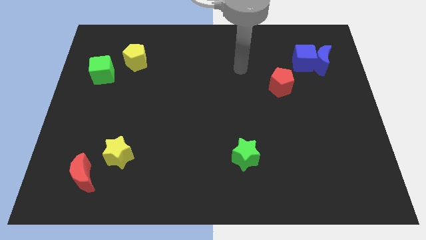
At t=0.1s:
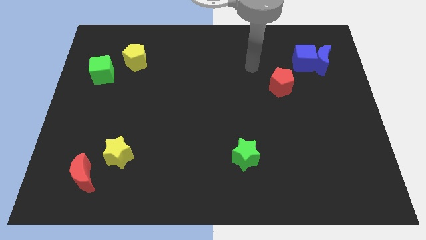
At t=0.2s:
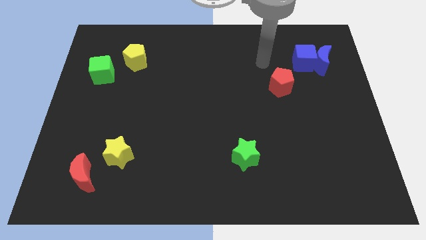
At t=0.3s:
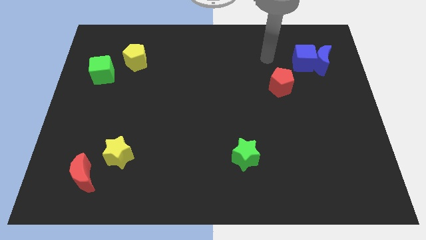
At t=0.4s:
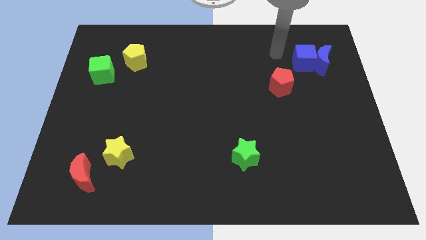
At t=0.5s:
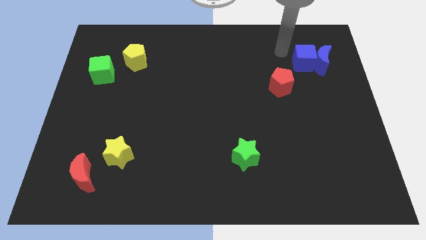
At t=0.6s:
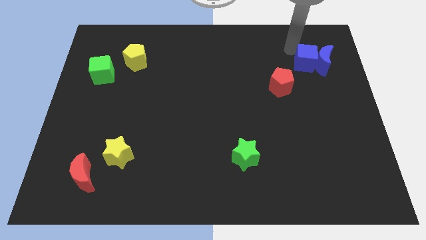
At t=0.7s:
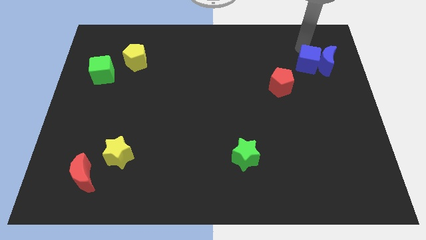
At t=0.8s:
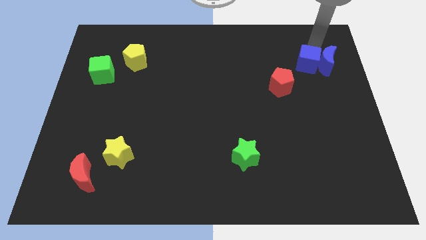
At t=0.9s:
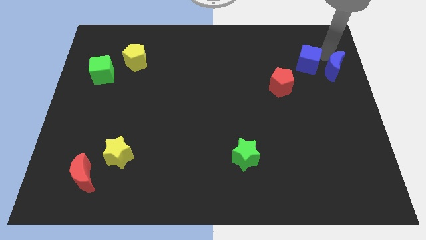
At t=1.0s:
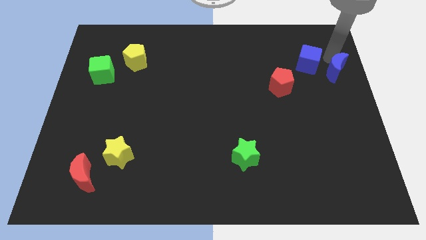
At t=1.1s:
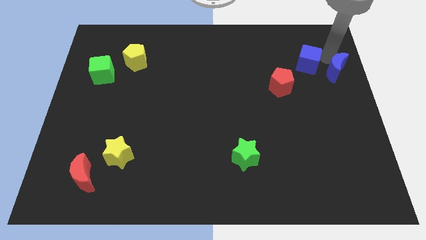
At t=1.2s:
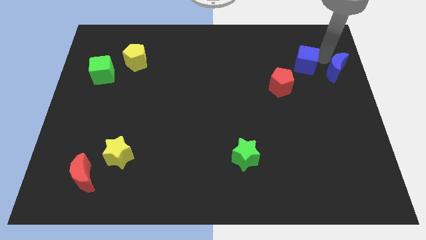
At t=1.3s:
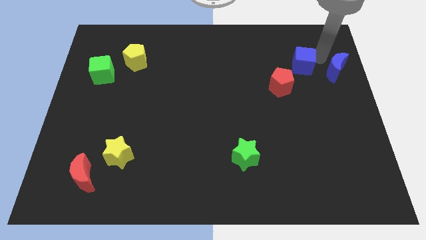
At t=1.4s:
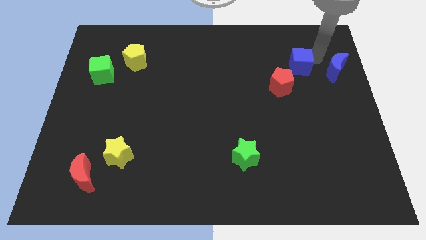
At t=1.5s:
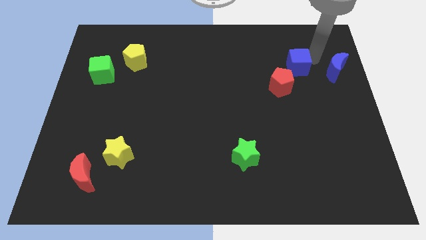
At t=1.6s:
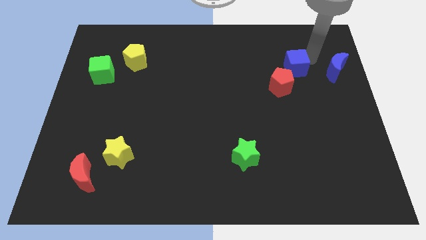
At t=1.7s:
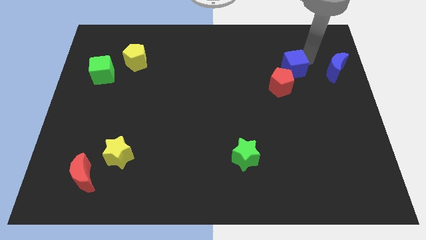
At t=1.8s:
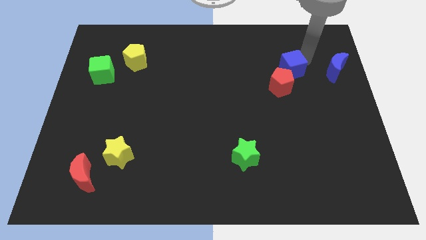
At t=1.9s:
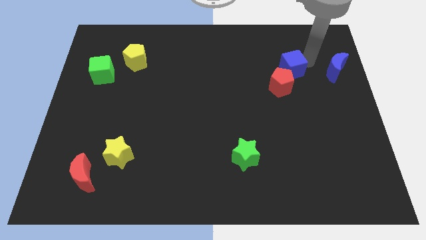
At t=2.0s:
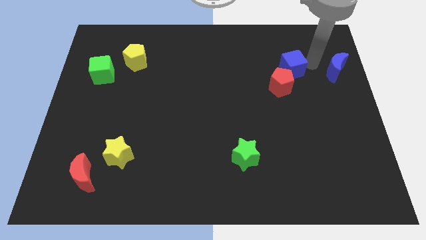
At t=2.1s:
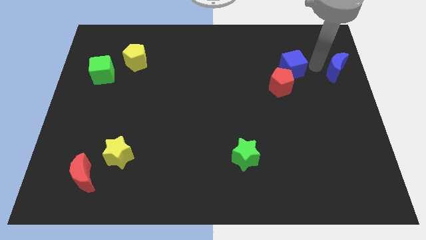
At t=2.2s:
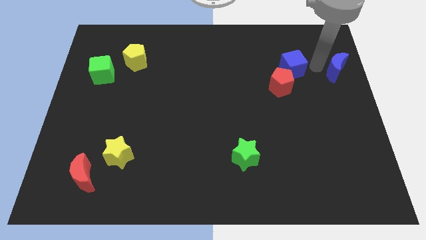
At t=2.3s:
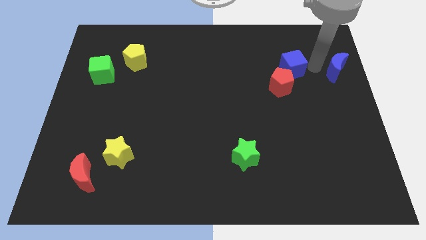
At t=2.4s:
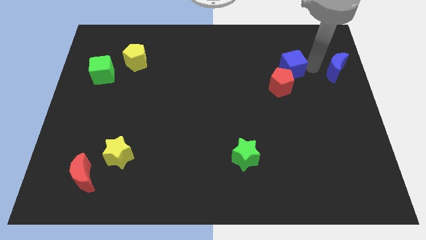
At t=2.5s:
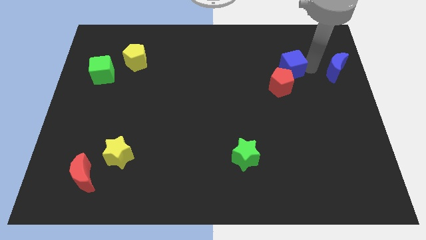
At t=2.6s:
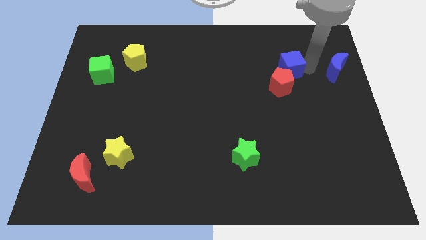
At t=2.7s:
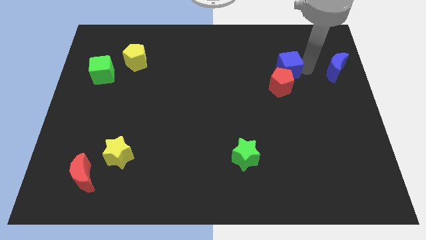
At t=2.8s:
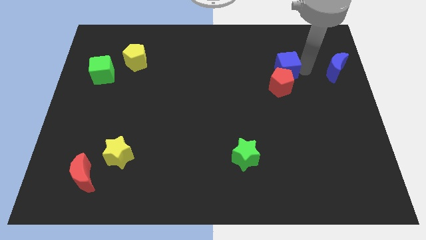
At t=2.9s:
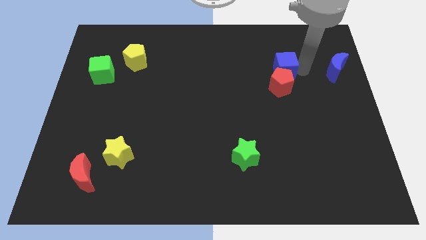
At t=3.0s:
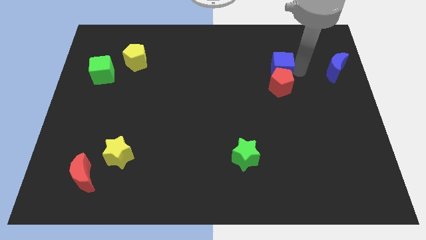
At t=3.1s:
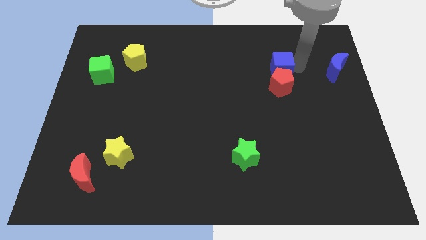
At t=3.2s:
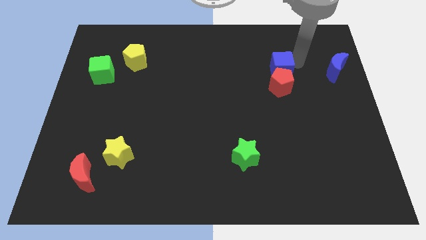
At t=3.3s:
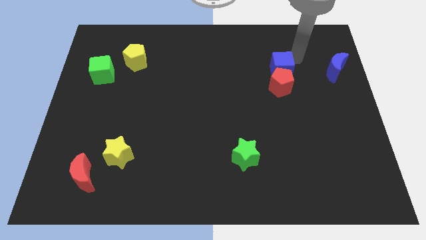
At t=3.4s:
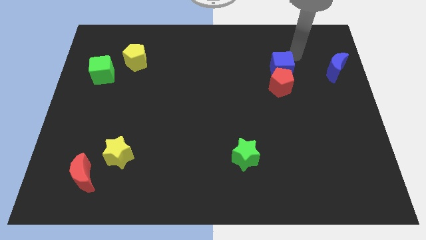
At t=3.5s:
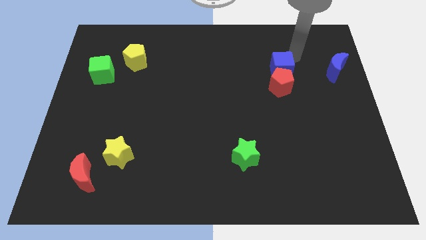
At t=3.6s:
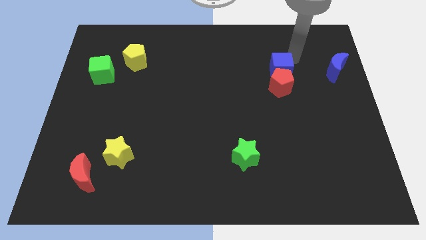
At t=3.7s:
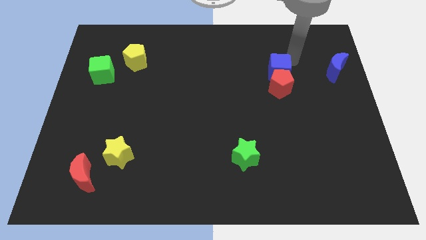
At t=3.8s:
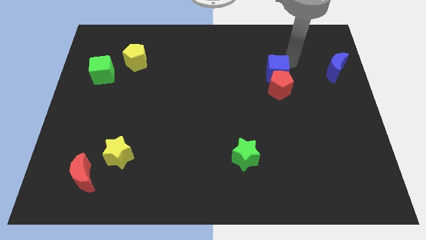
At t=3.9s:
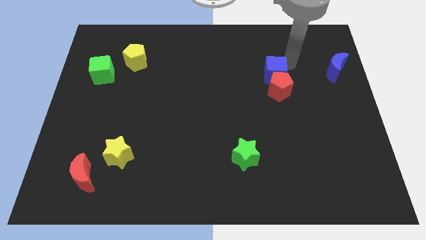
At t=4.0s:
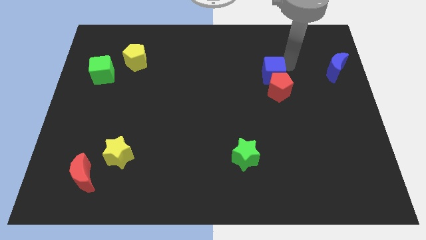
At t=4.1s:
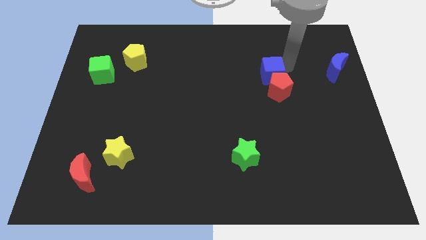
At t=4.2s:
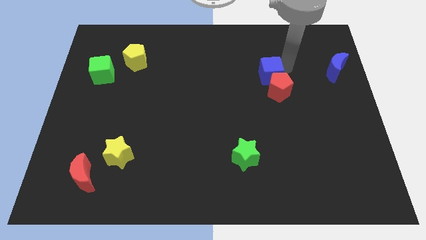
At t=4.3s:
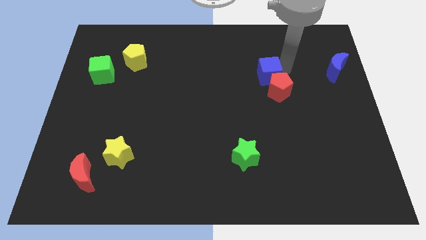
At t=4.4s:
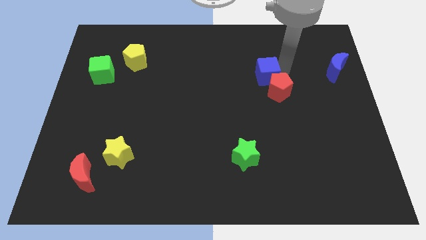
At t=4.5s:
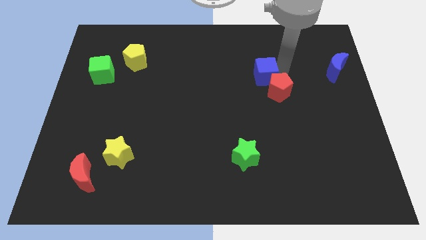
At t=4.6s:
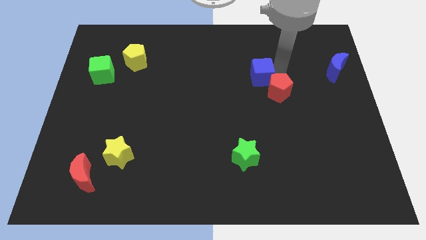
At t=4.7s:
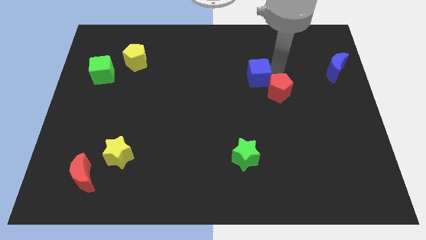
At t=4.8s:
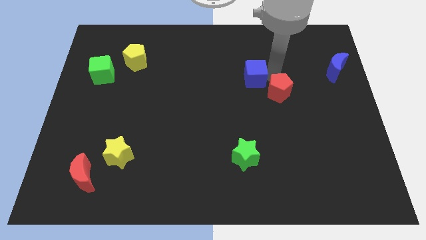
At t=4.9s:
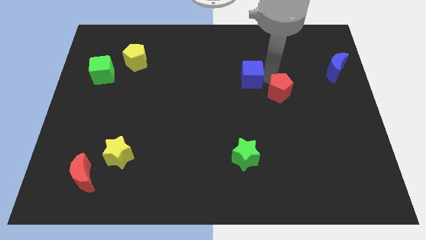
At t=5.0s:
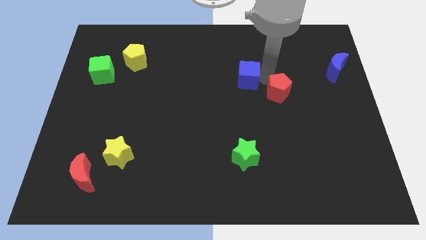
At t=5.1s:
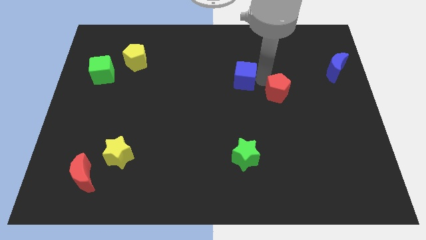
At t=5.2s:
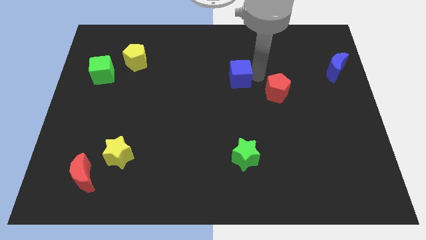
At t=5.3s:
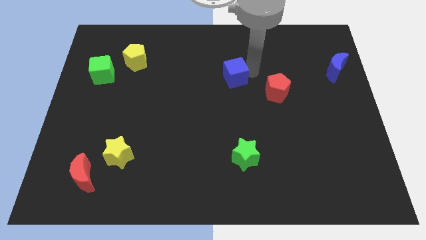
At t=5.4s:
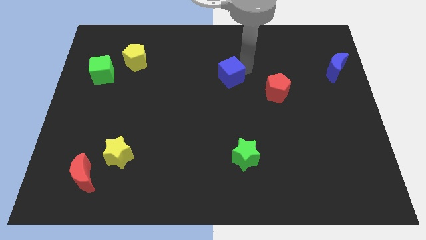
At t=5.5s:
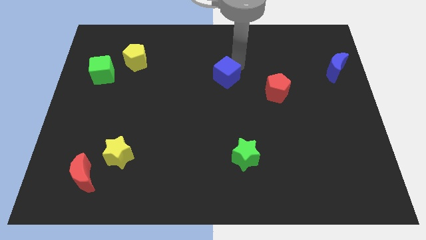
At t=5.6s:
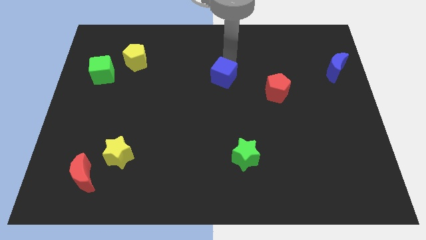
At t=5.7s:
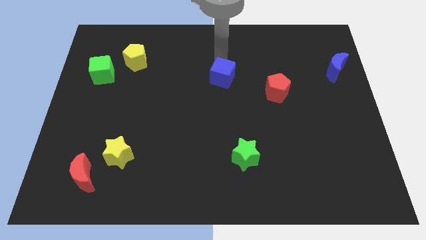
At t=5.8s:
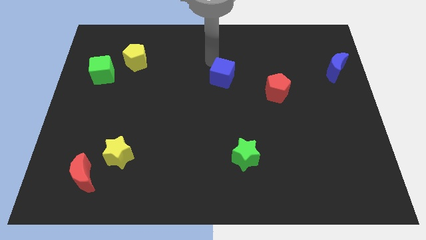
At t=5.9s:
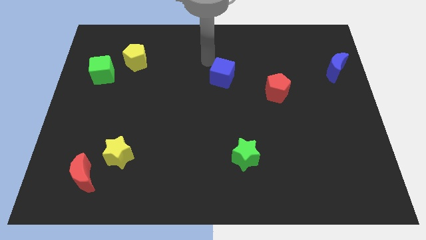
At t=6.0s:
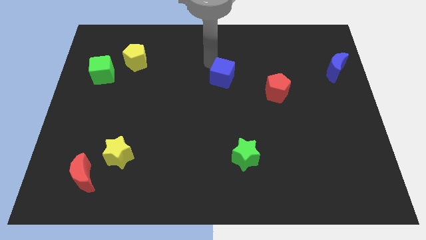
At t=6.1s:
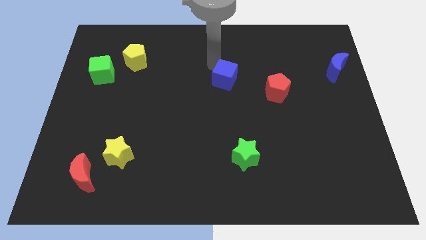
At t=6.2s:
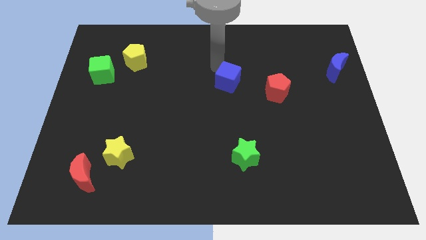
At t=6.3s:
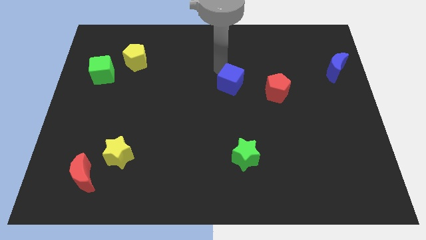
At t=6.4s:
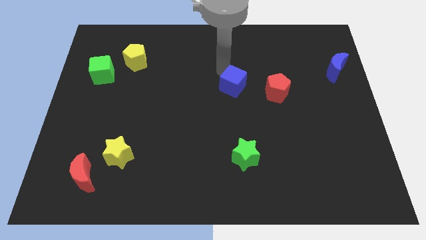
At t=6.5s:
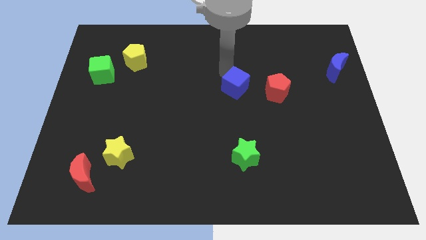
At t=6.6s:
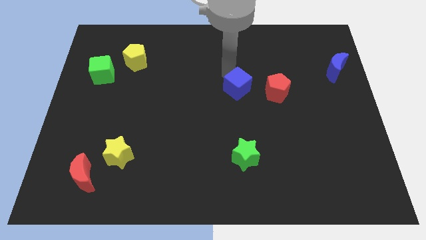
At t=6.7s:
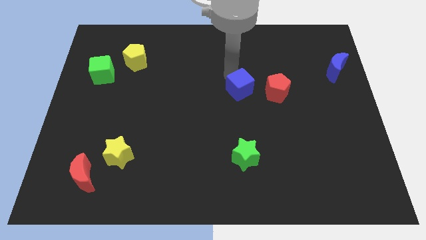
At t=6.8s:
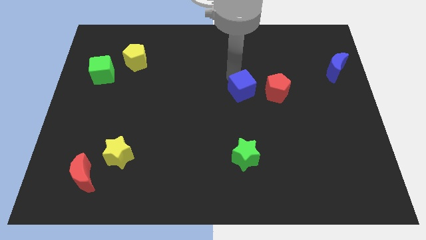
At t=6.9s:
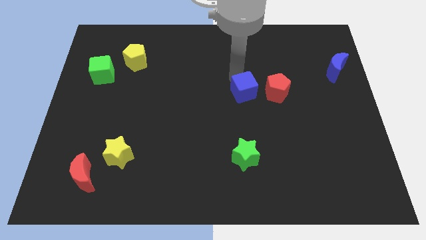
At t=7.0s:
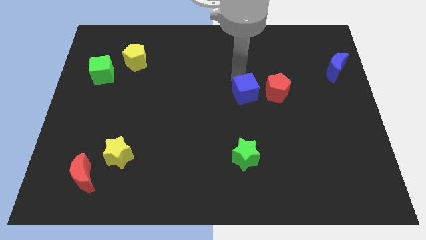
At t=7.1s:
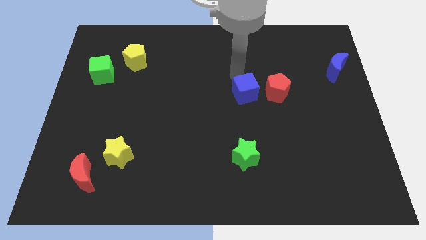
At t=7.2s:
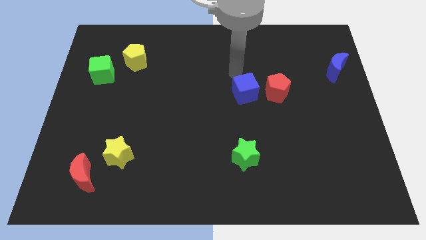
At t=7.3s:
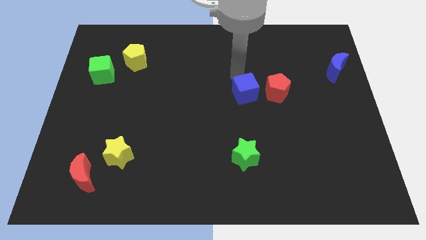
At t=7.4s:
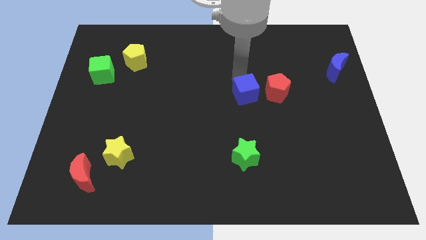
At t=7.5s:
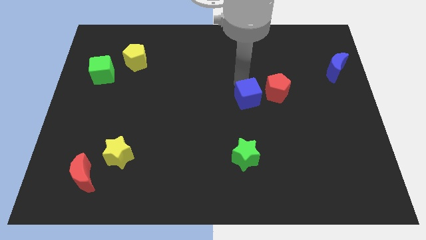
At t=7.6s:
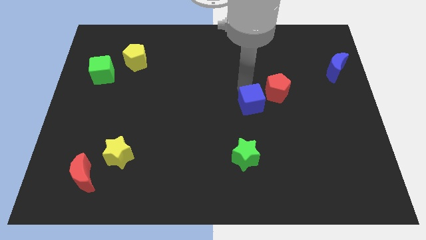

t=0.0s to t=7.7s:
move the blue cube down and then to the left

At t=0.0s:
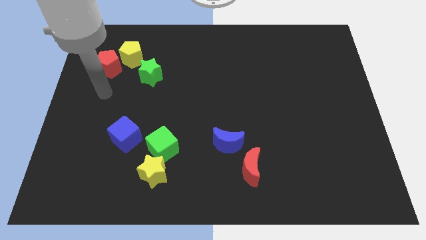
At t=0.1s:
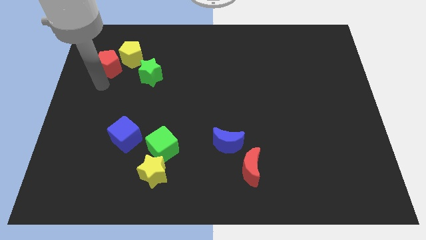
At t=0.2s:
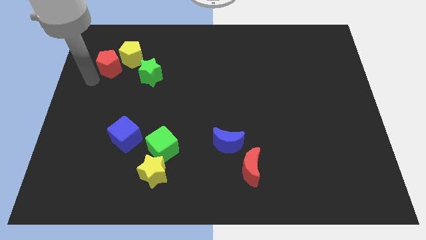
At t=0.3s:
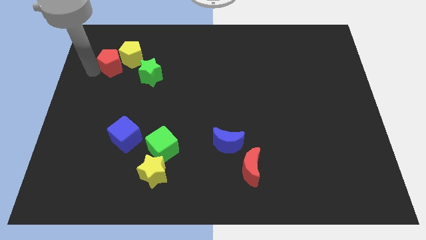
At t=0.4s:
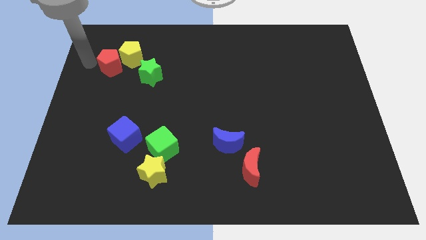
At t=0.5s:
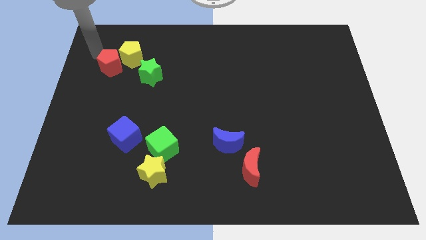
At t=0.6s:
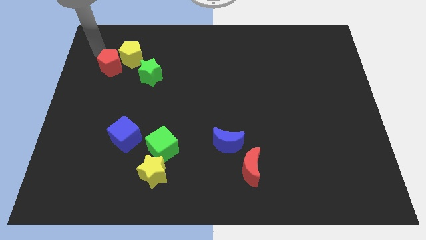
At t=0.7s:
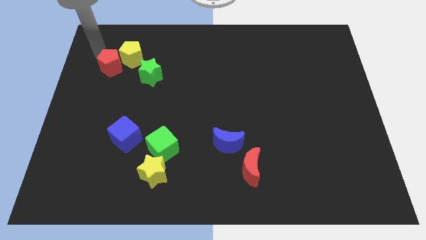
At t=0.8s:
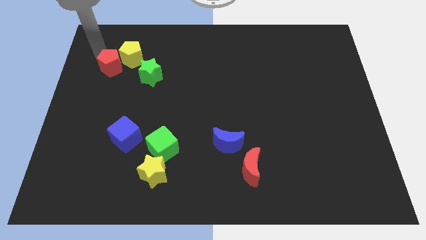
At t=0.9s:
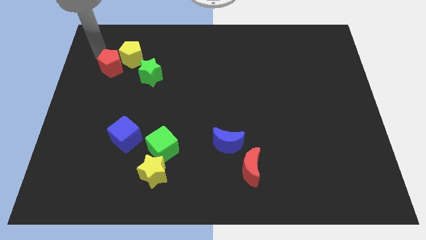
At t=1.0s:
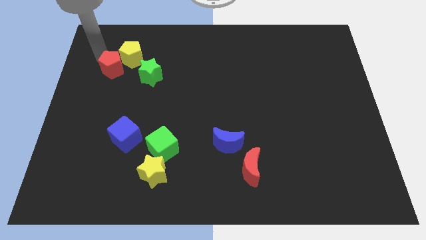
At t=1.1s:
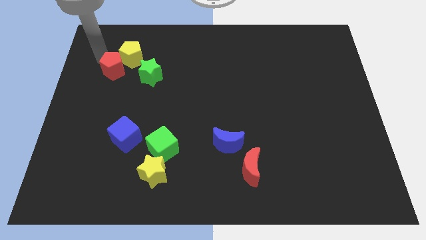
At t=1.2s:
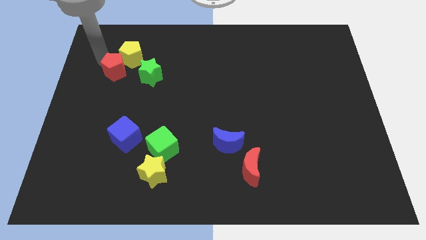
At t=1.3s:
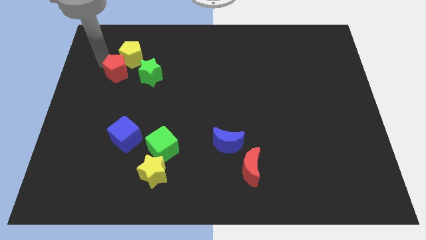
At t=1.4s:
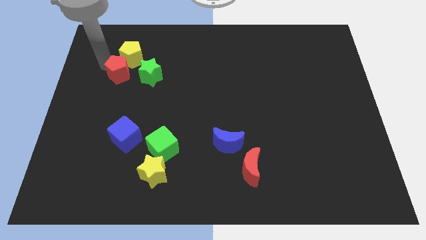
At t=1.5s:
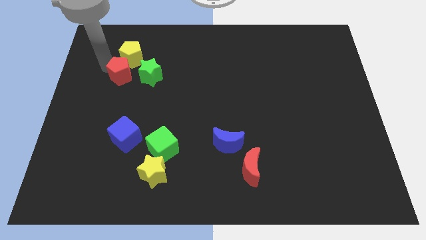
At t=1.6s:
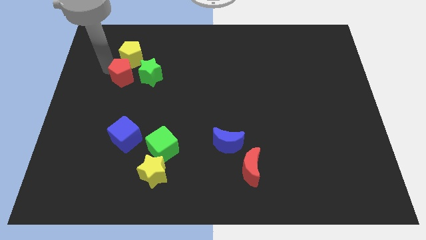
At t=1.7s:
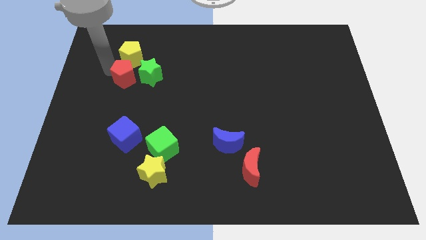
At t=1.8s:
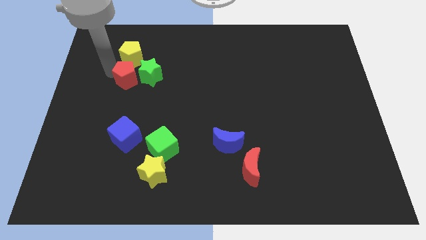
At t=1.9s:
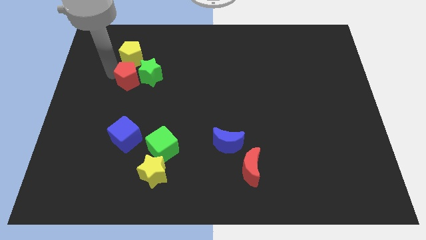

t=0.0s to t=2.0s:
slightly slide the red pentagon down and to the right diagonally
